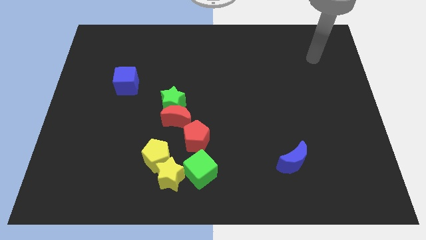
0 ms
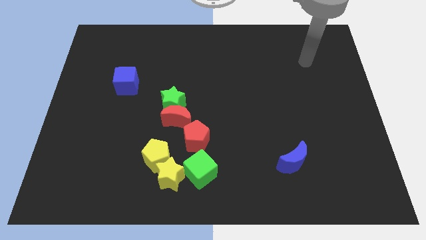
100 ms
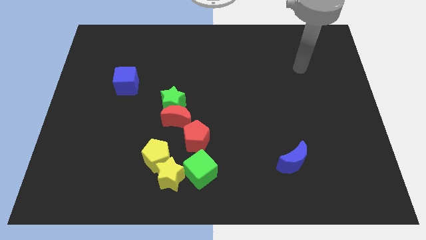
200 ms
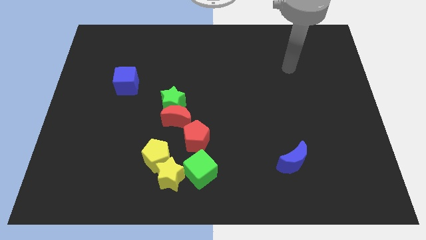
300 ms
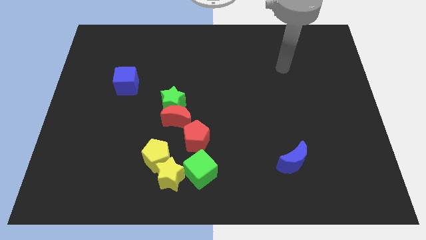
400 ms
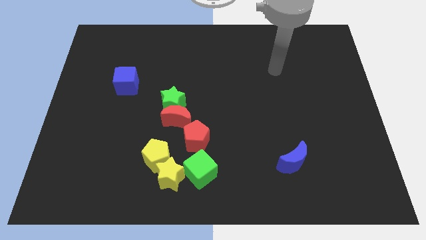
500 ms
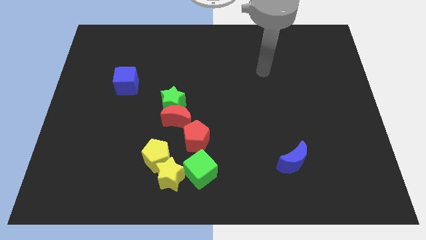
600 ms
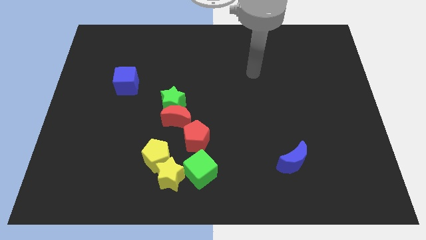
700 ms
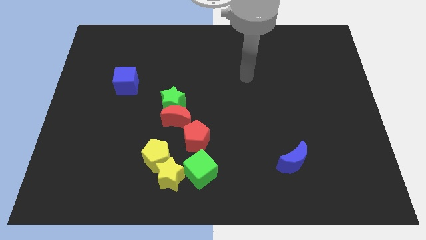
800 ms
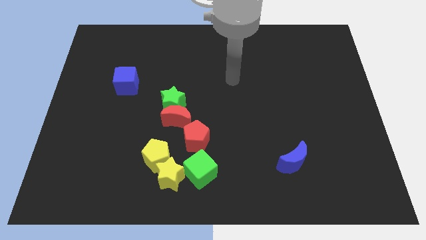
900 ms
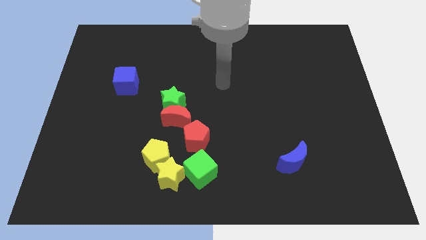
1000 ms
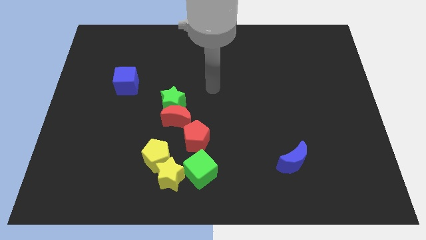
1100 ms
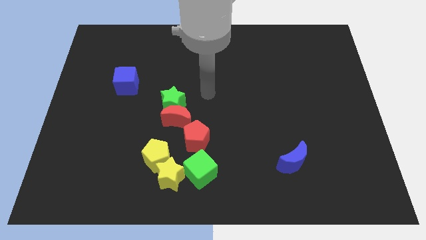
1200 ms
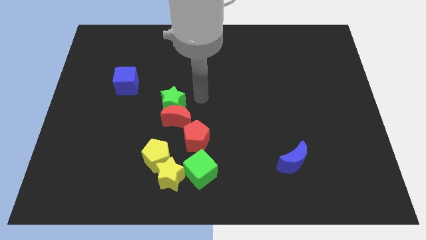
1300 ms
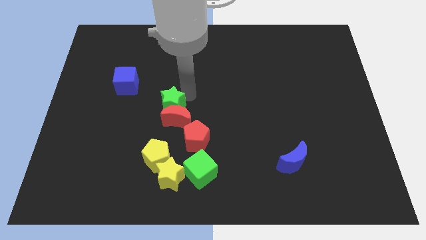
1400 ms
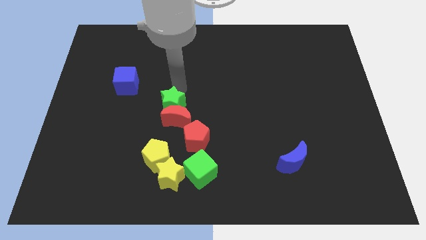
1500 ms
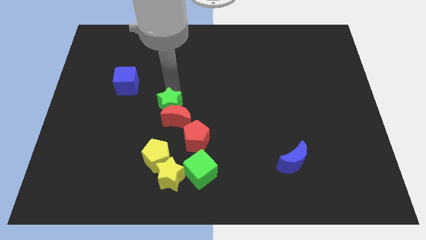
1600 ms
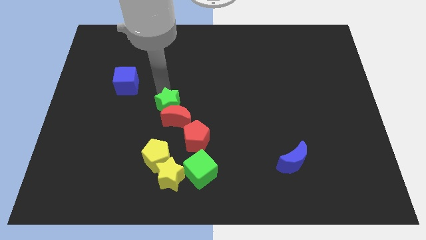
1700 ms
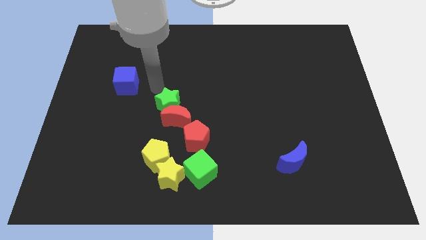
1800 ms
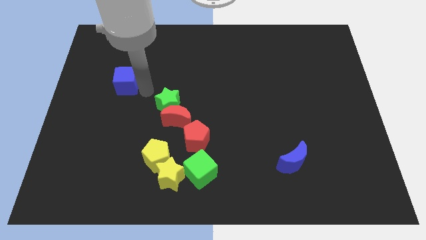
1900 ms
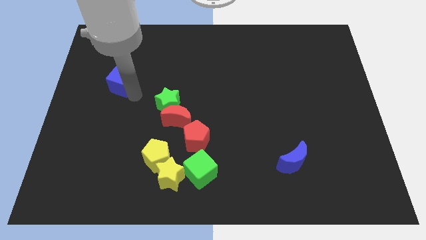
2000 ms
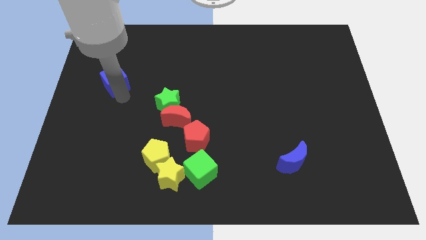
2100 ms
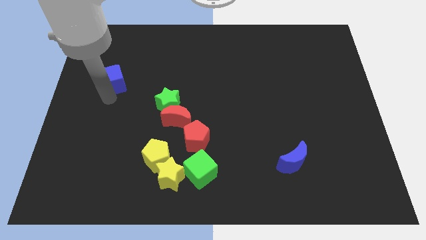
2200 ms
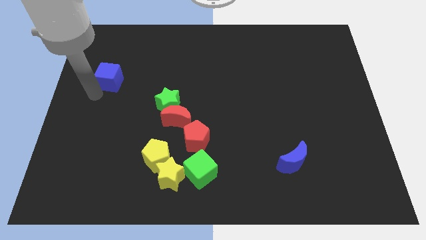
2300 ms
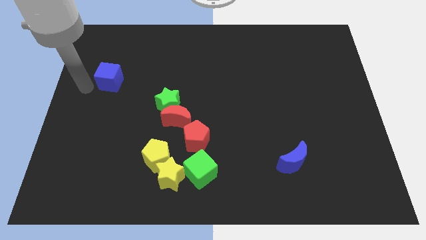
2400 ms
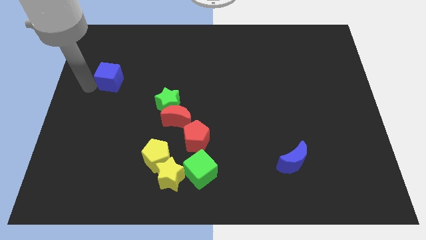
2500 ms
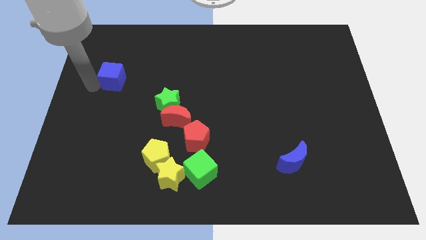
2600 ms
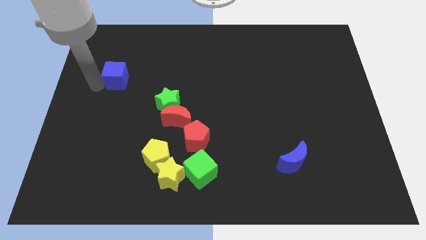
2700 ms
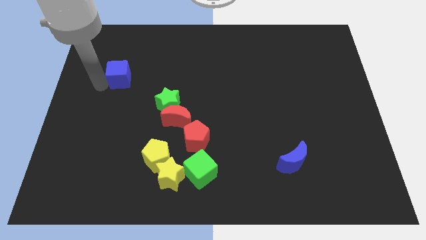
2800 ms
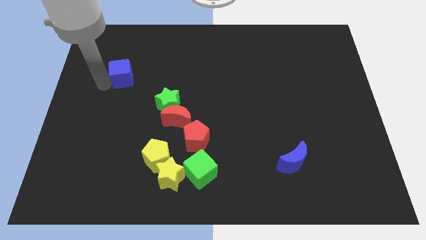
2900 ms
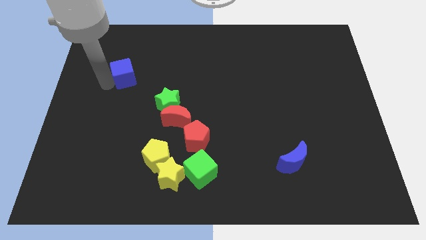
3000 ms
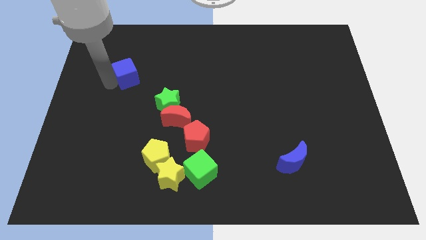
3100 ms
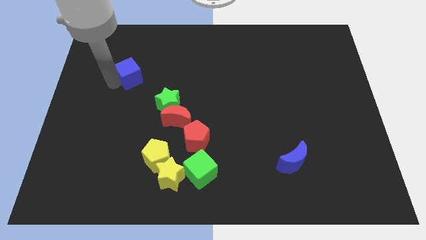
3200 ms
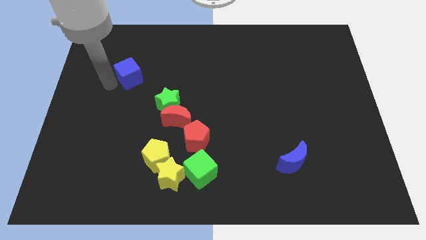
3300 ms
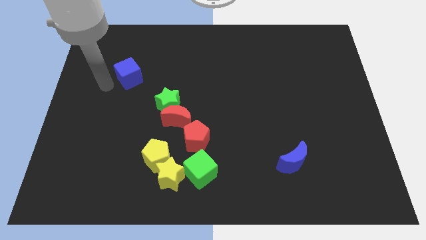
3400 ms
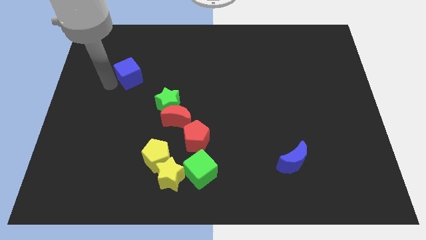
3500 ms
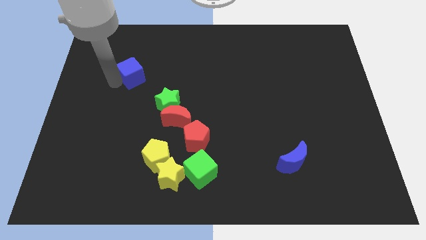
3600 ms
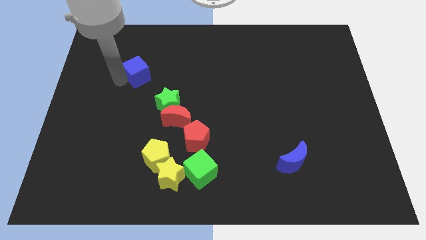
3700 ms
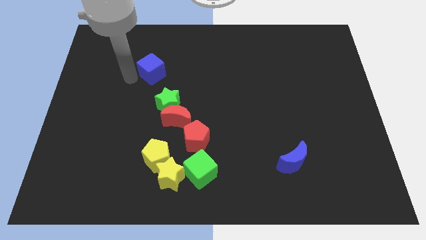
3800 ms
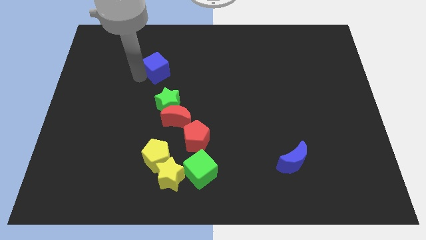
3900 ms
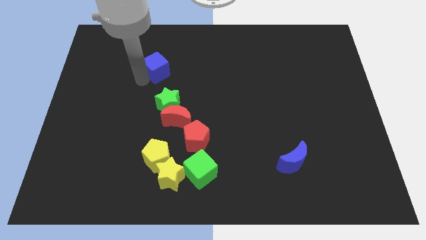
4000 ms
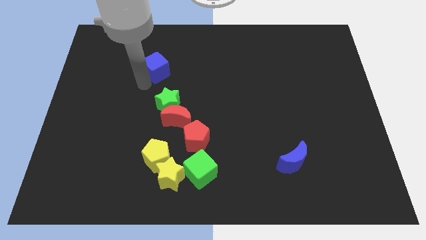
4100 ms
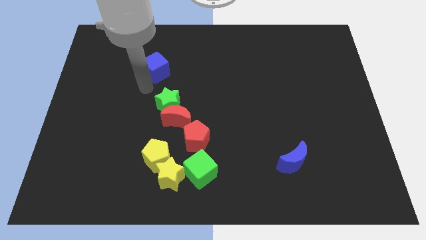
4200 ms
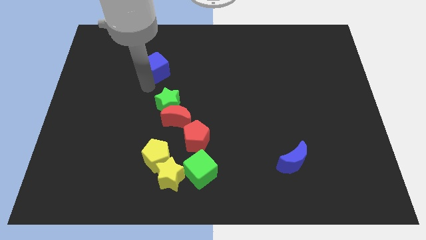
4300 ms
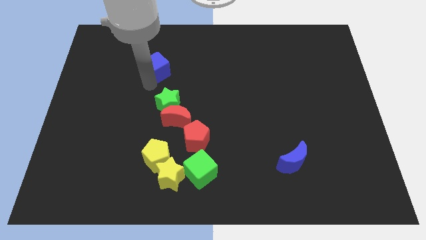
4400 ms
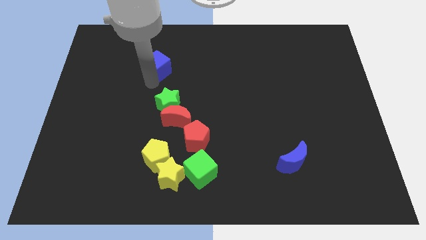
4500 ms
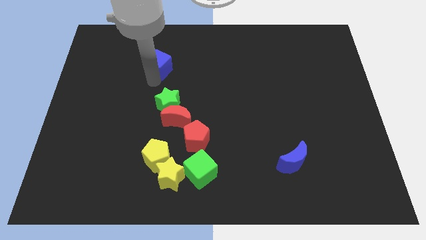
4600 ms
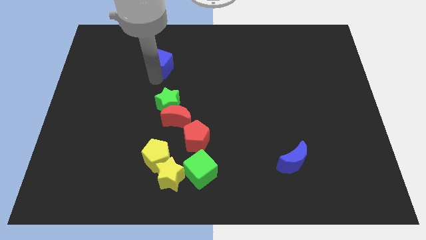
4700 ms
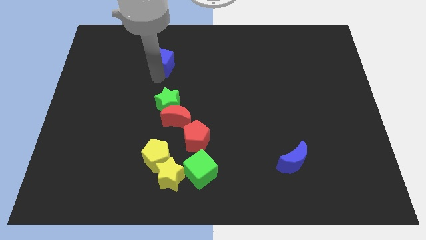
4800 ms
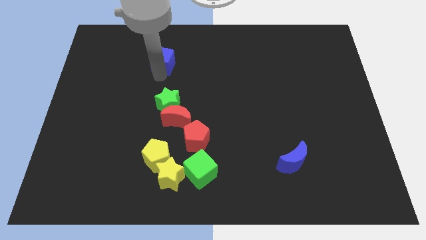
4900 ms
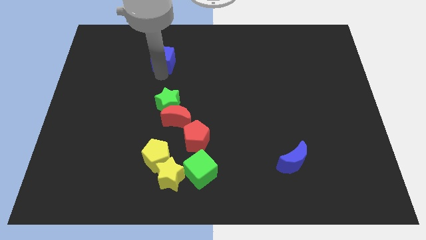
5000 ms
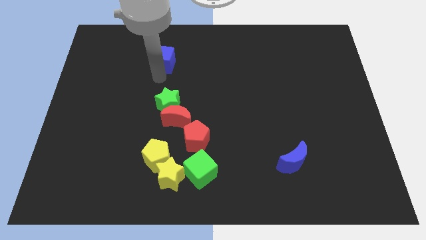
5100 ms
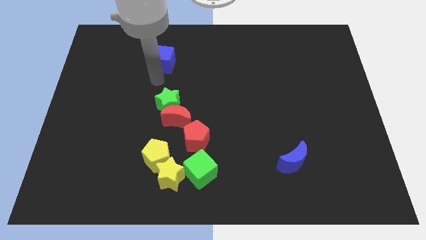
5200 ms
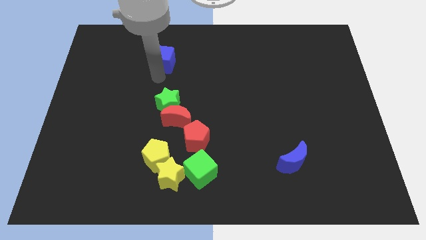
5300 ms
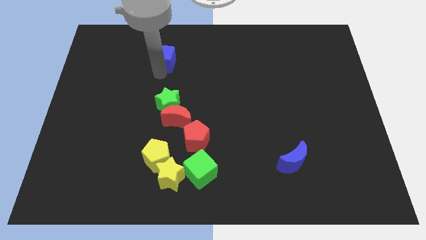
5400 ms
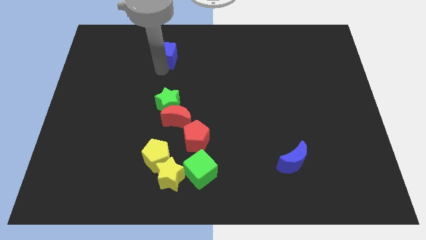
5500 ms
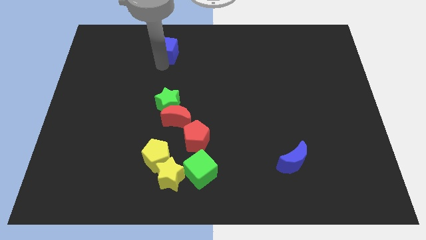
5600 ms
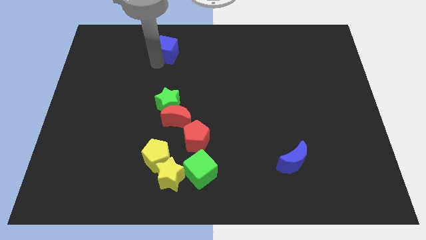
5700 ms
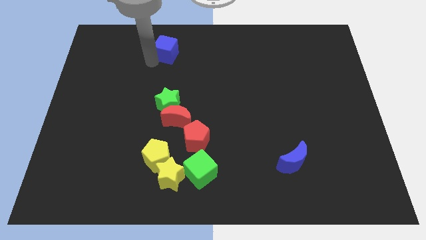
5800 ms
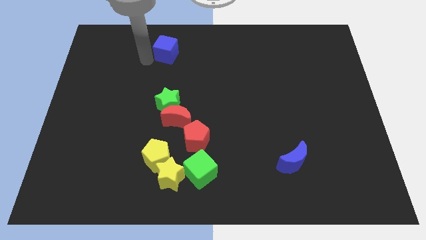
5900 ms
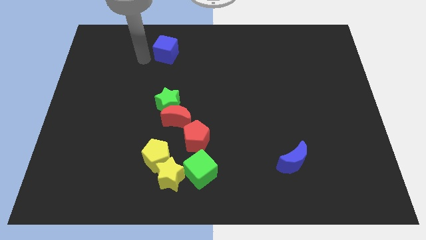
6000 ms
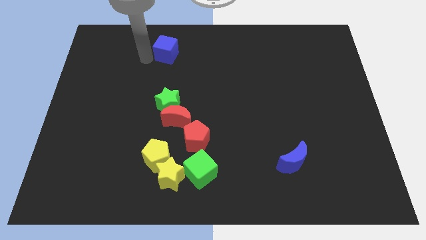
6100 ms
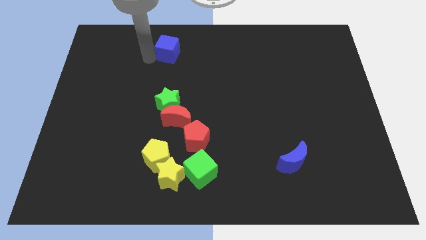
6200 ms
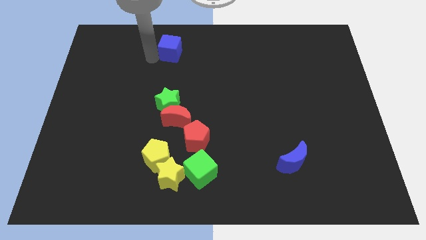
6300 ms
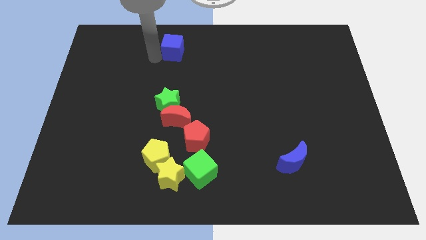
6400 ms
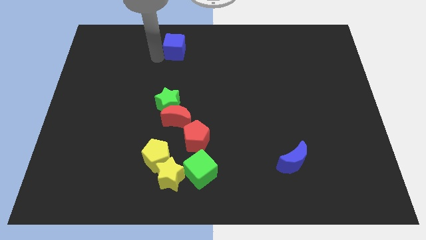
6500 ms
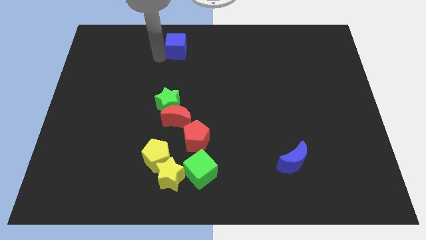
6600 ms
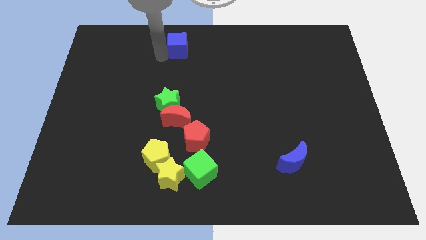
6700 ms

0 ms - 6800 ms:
move the blue cube to the top side
